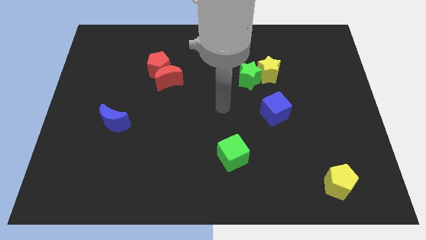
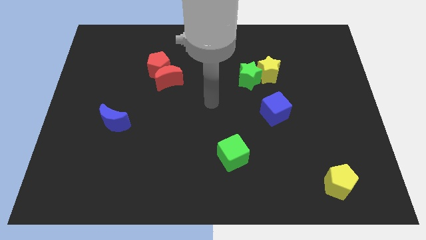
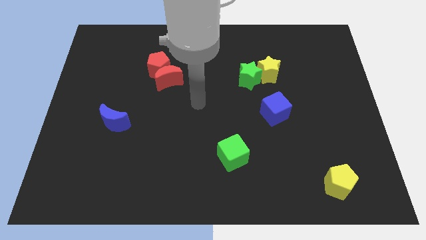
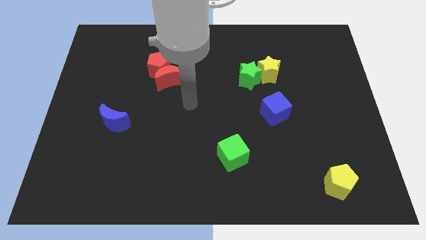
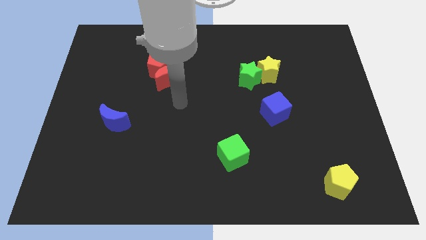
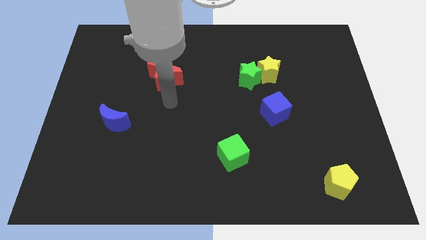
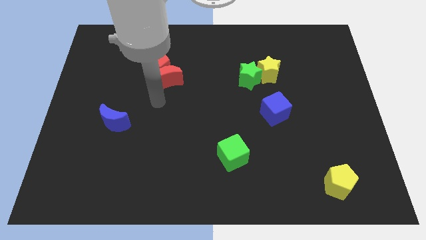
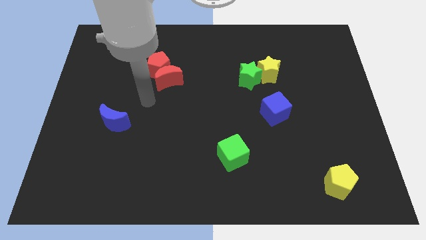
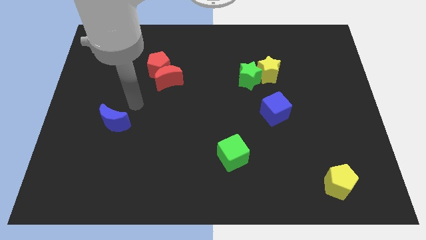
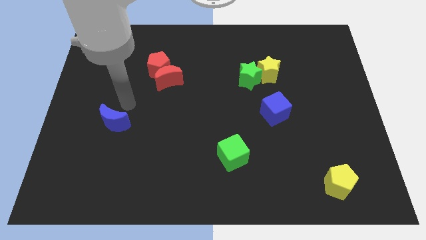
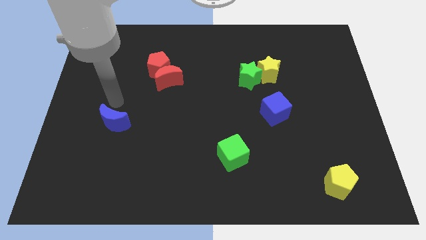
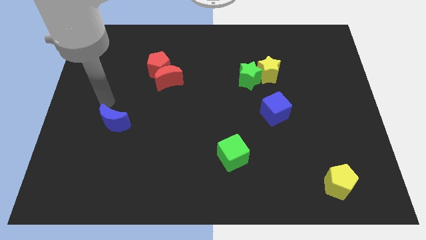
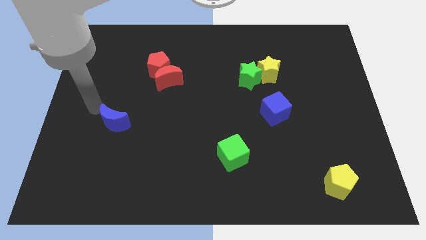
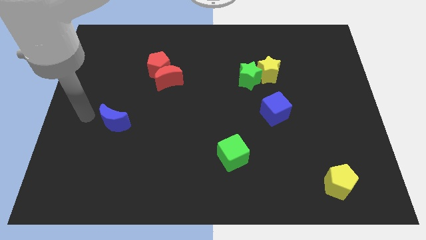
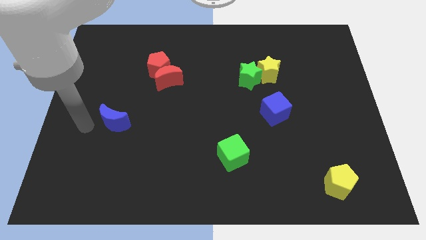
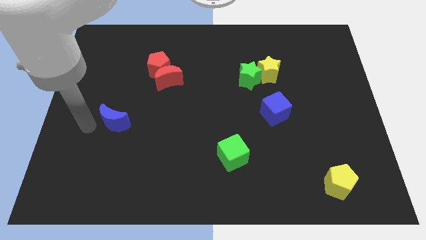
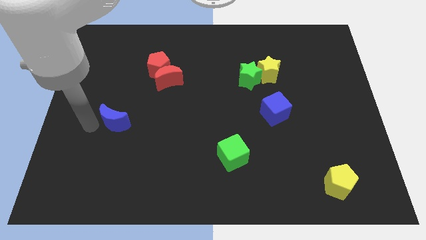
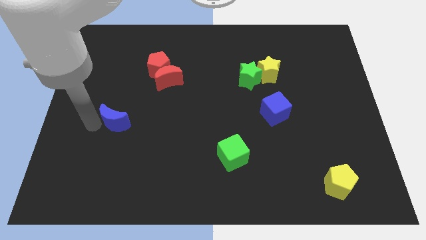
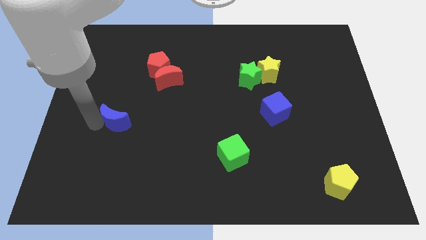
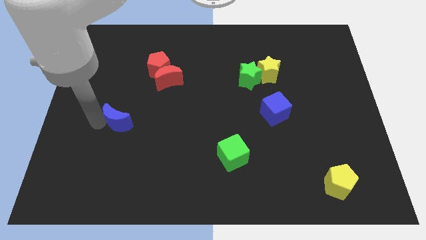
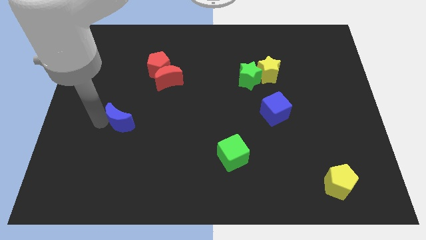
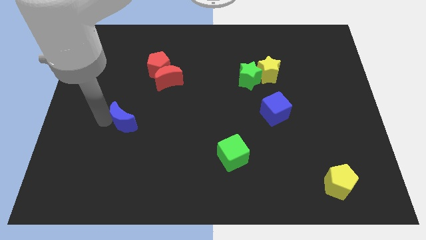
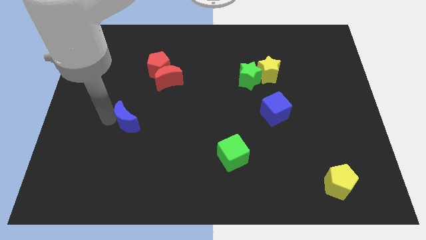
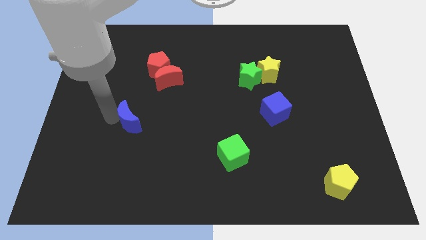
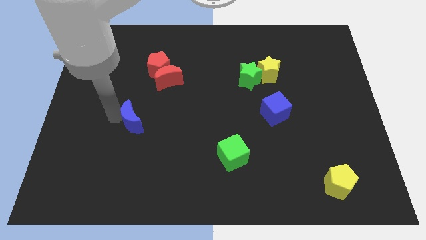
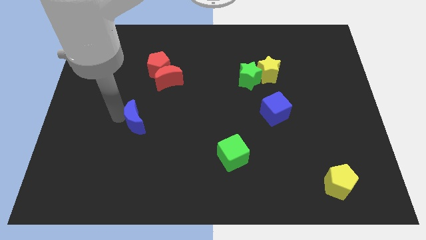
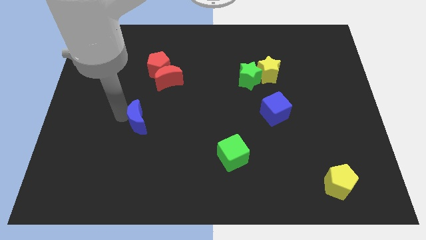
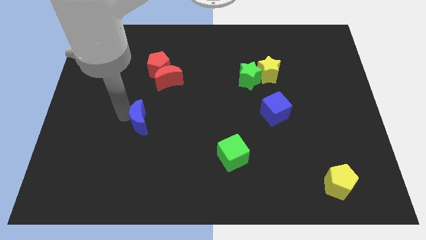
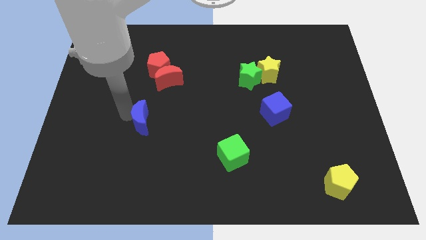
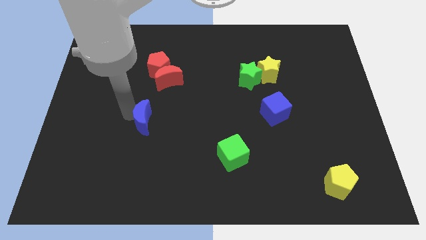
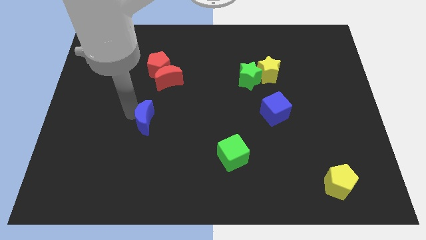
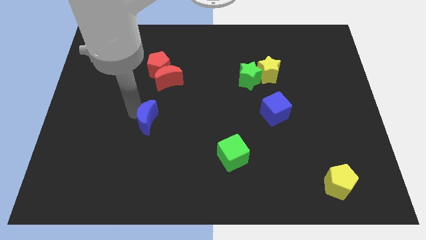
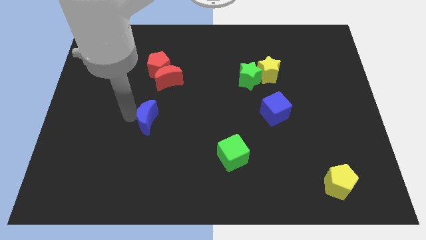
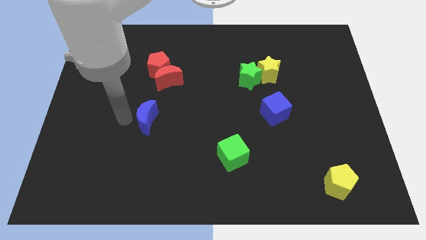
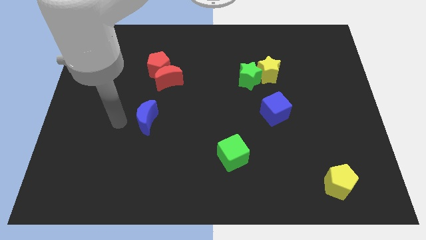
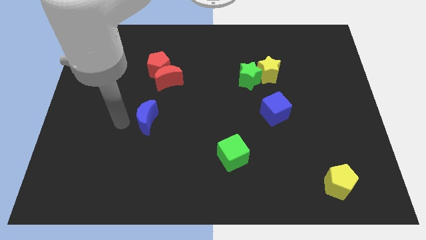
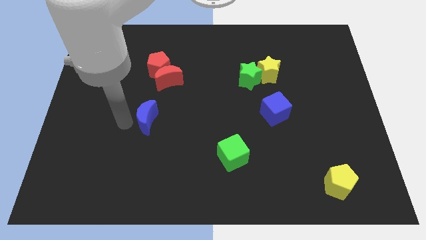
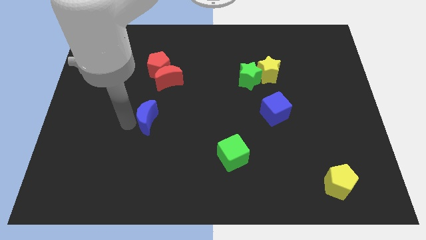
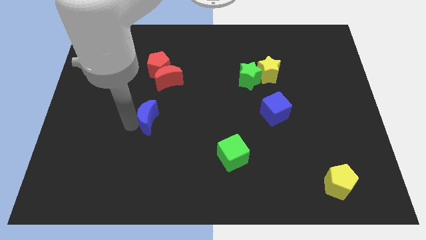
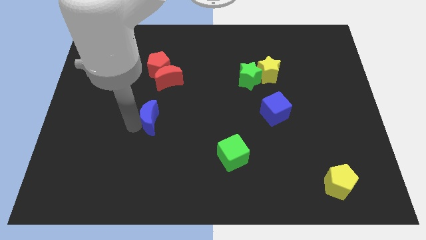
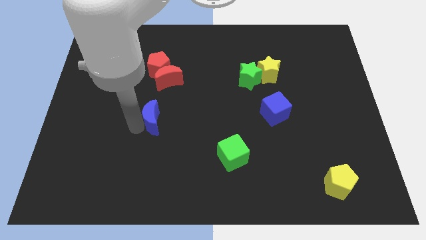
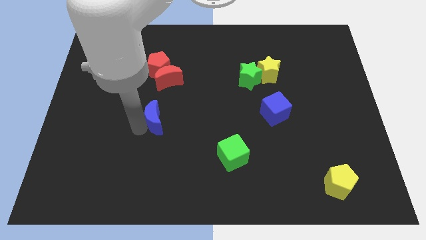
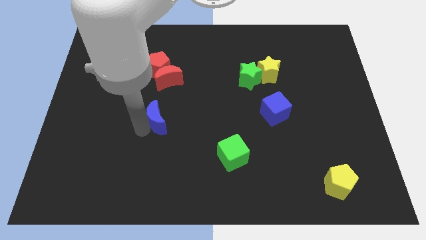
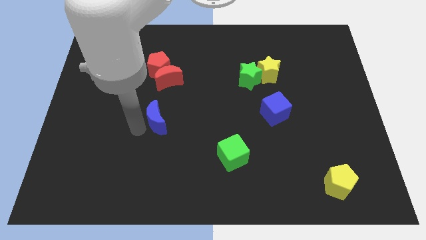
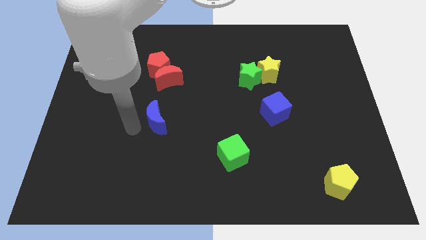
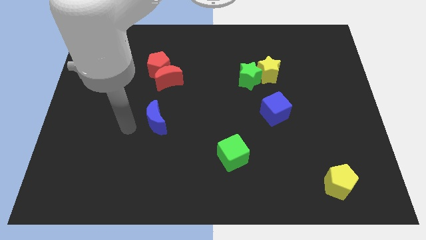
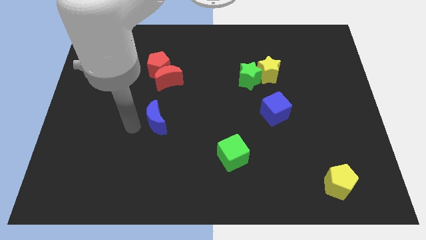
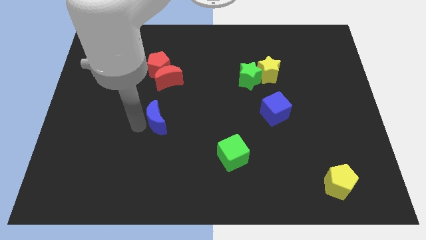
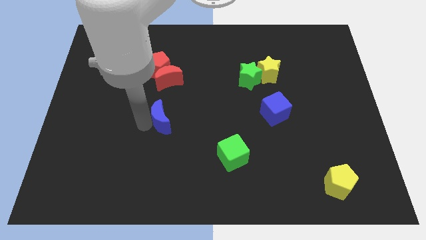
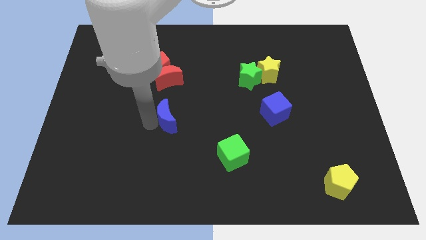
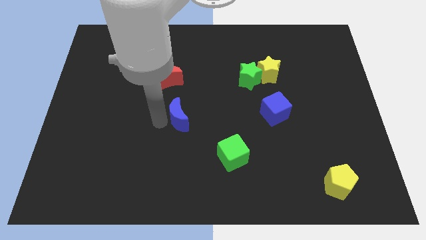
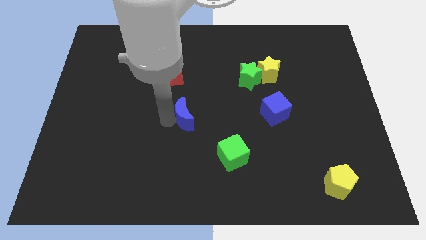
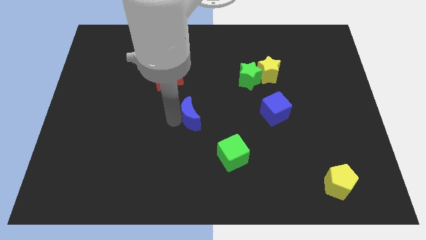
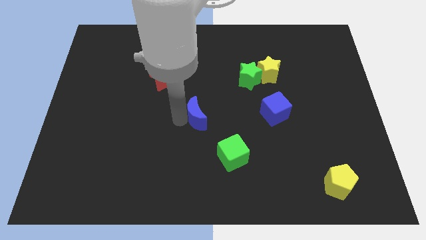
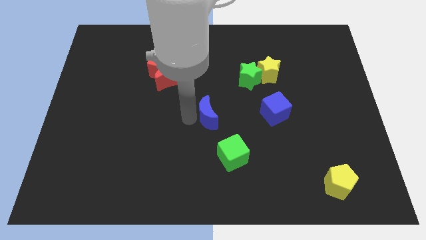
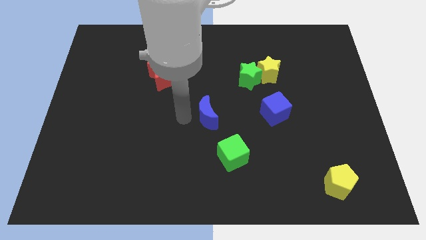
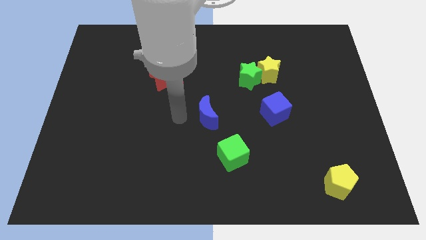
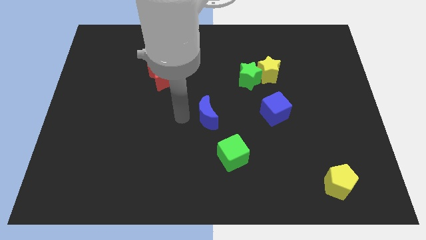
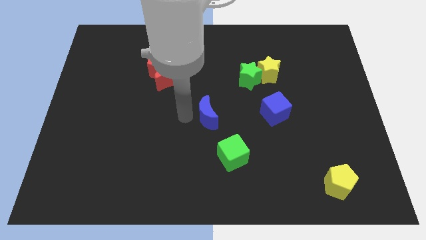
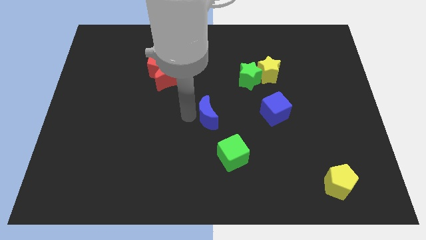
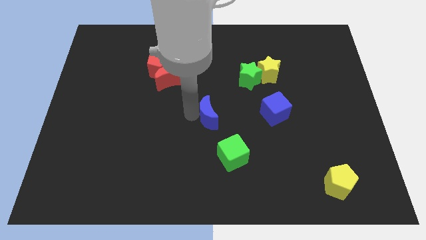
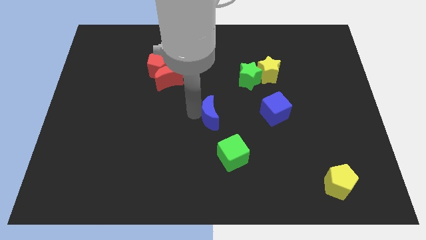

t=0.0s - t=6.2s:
slide the blue moon above the green cube

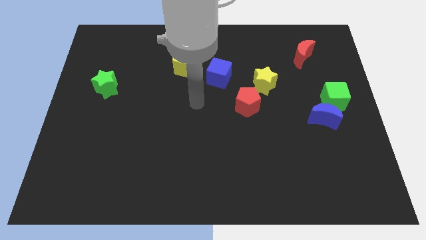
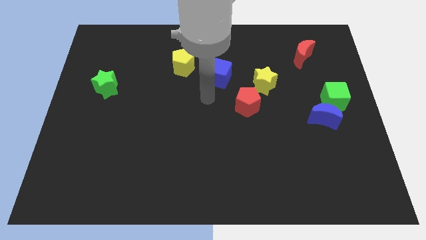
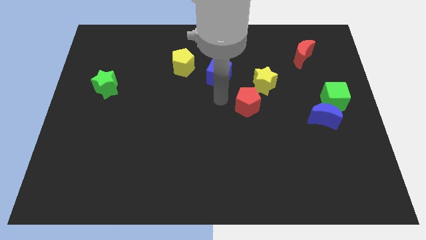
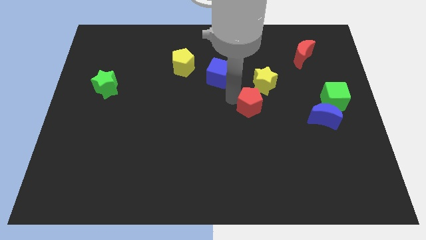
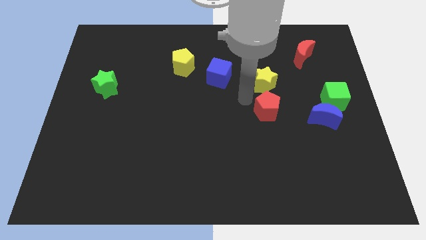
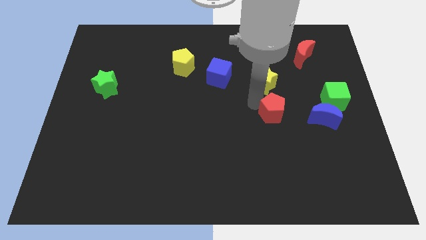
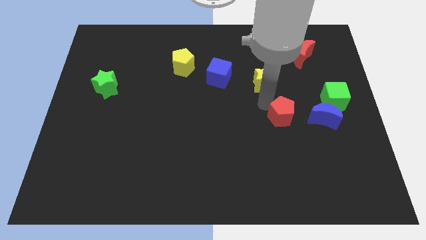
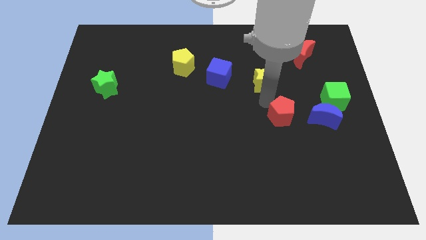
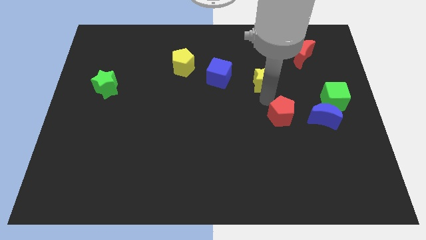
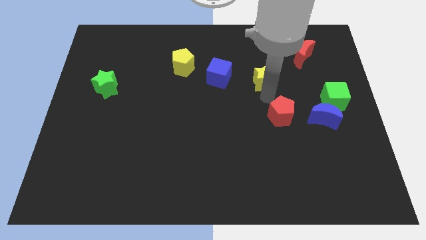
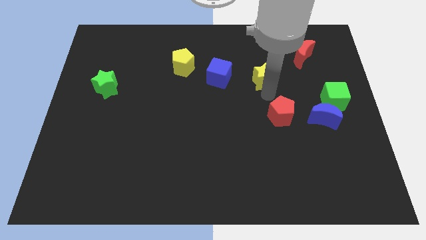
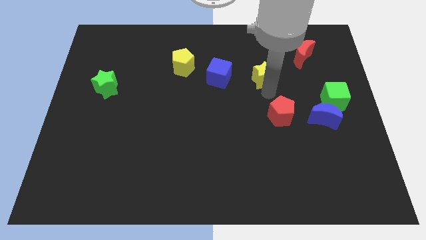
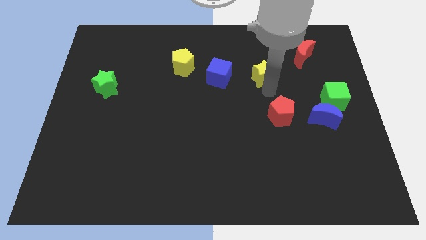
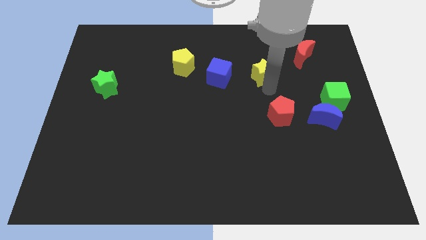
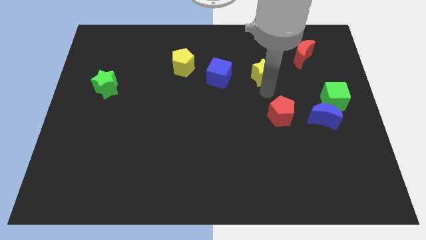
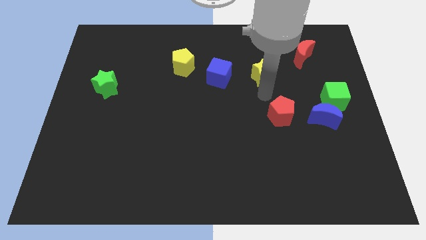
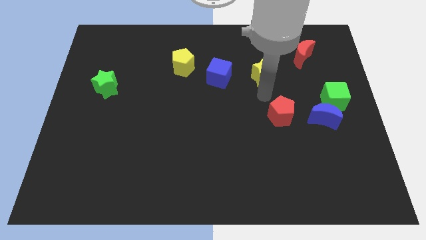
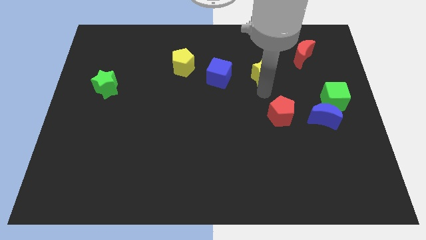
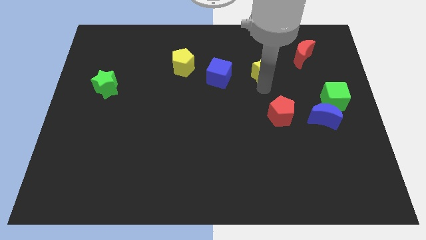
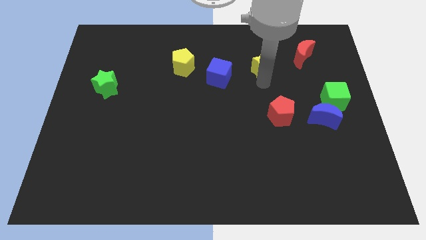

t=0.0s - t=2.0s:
put the yellow star to the left side of the red moon
